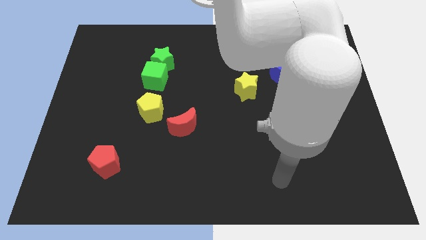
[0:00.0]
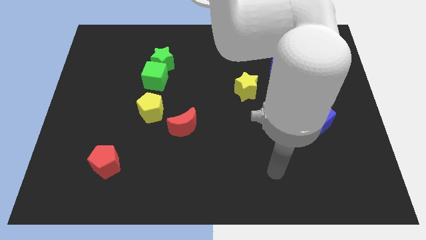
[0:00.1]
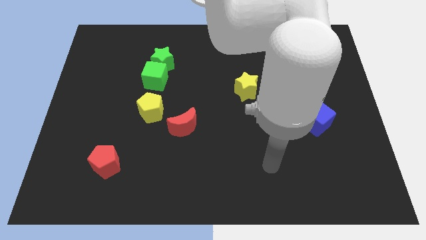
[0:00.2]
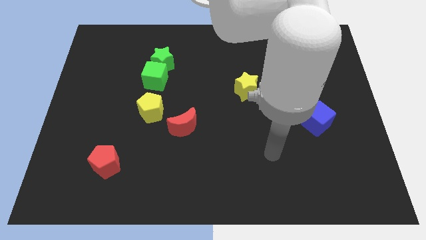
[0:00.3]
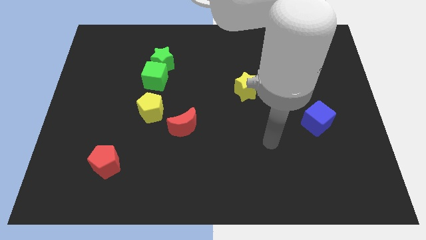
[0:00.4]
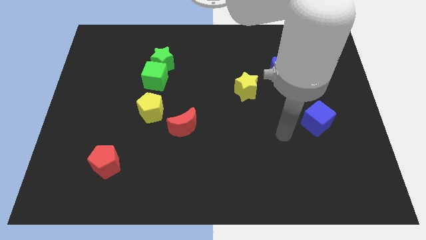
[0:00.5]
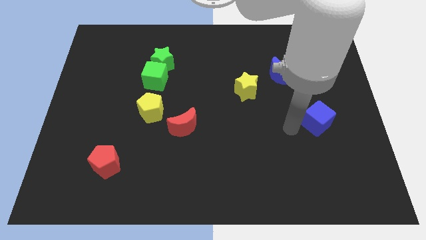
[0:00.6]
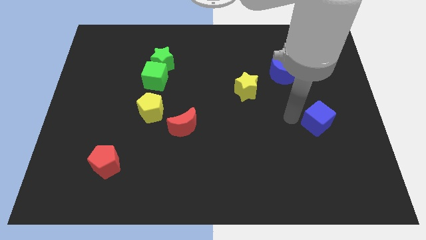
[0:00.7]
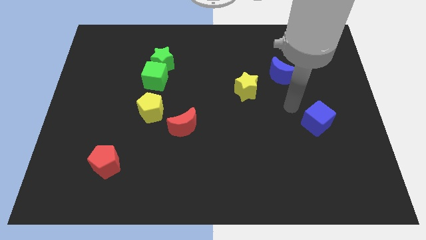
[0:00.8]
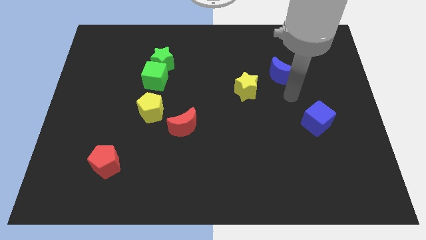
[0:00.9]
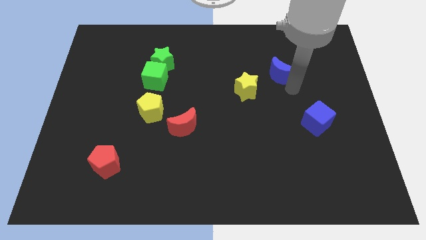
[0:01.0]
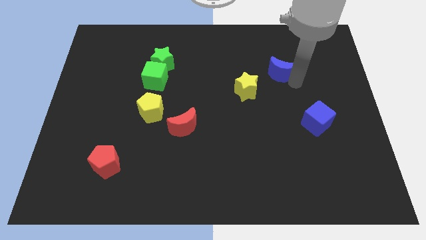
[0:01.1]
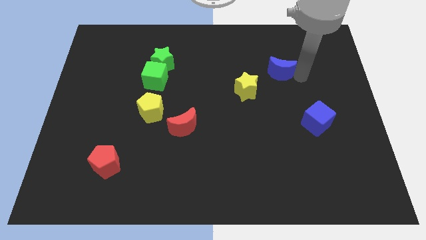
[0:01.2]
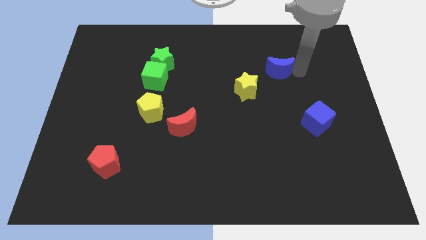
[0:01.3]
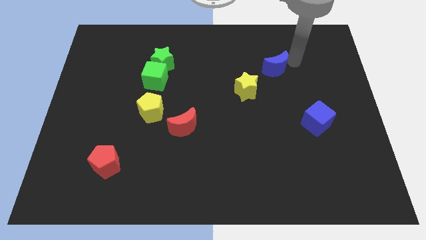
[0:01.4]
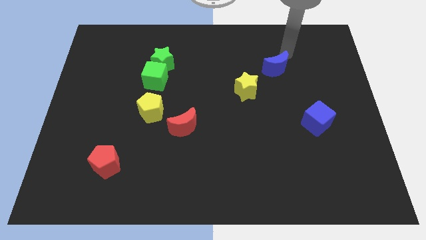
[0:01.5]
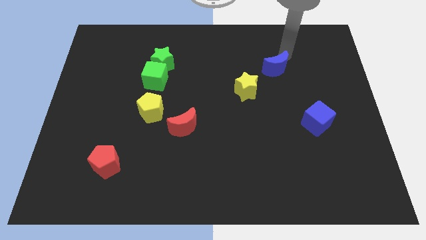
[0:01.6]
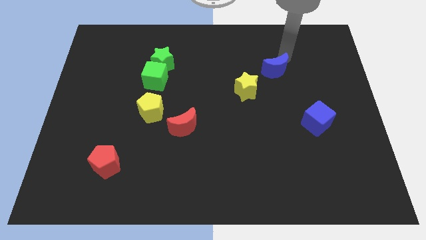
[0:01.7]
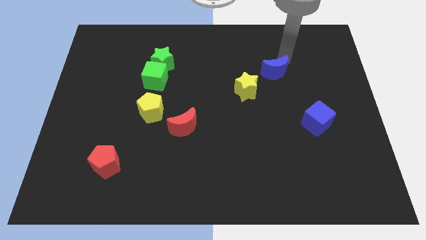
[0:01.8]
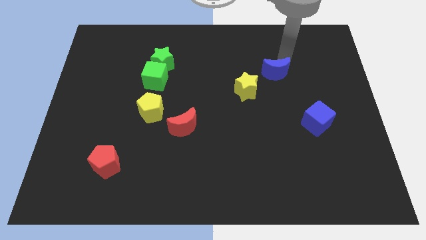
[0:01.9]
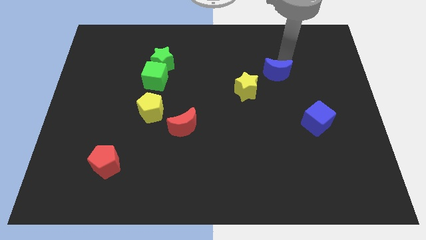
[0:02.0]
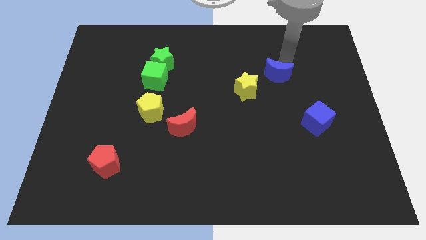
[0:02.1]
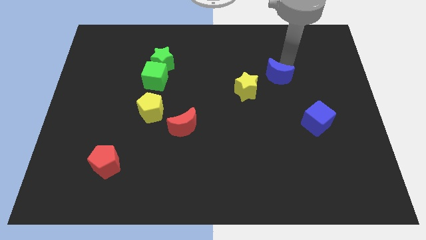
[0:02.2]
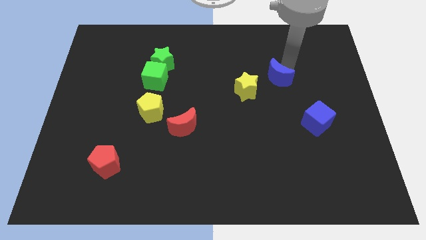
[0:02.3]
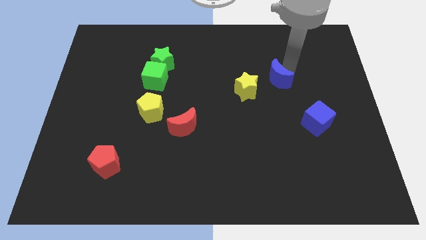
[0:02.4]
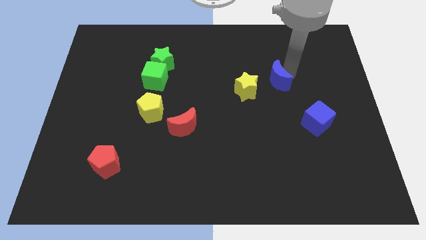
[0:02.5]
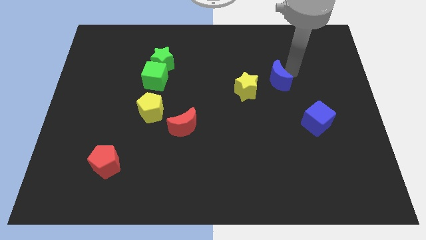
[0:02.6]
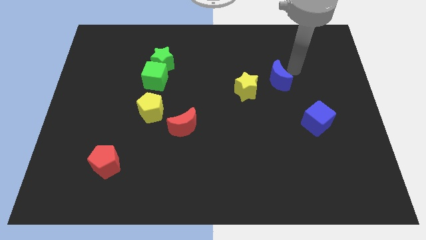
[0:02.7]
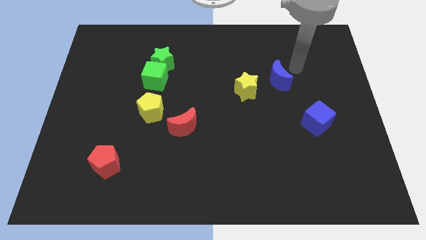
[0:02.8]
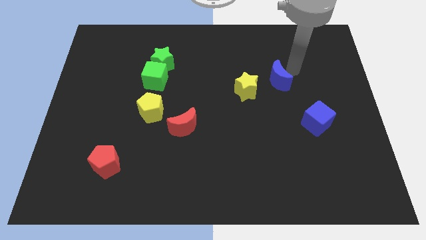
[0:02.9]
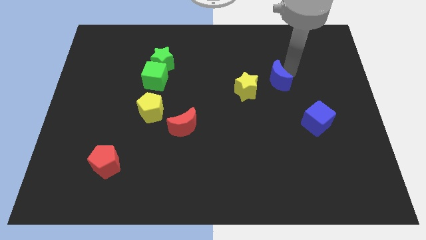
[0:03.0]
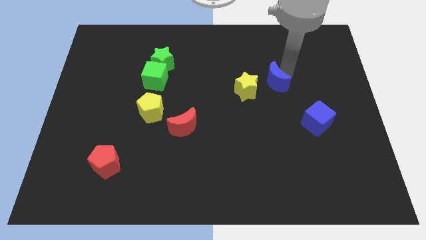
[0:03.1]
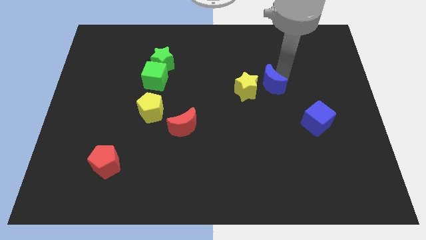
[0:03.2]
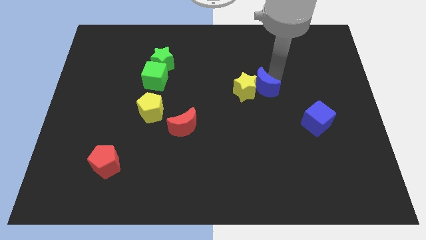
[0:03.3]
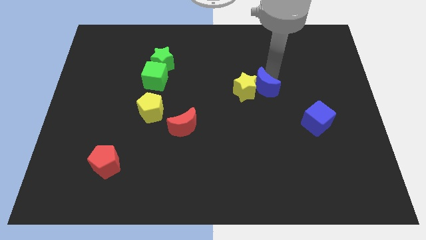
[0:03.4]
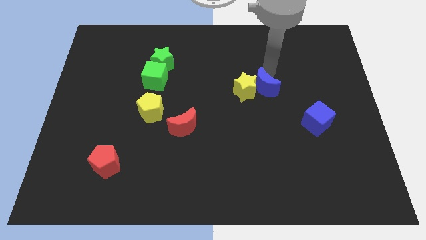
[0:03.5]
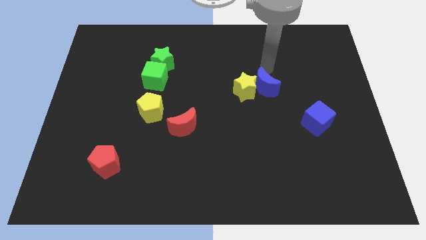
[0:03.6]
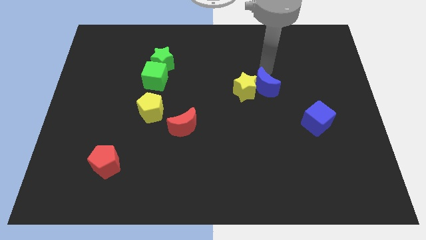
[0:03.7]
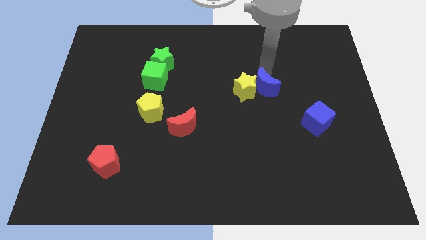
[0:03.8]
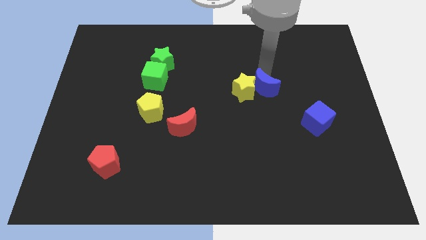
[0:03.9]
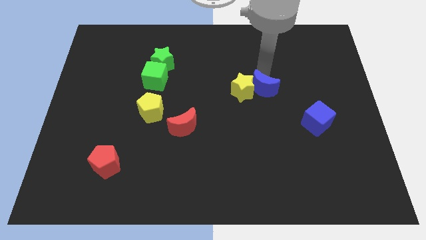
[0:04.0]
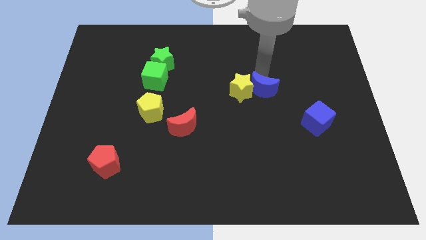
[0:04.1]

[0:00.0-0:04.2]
push the blue moon downwards and left diagonally a little

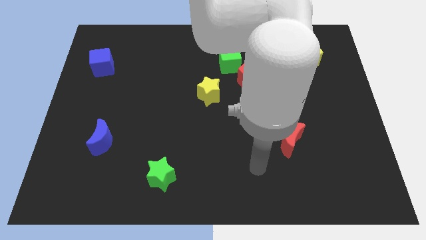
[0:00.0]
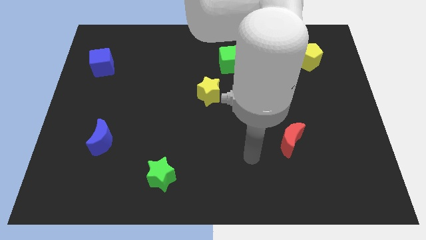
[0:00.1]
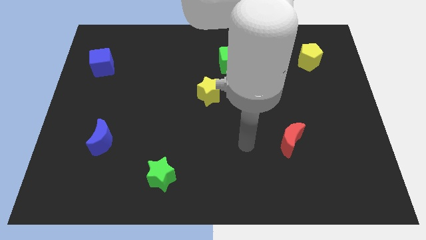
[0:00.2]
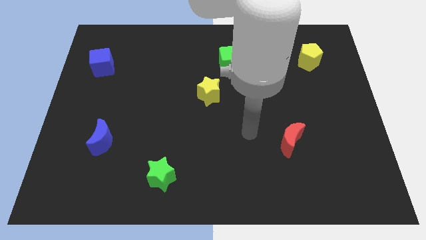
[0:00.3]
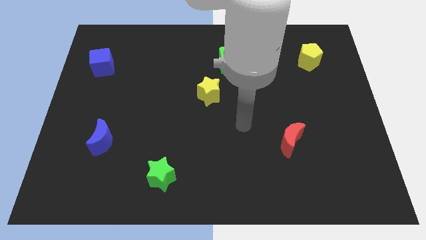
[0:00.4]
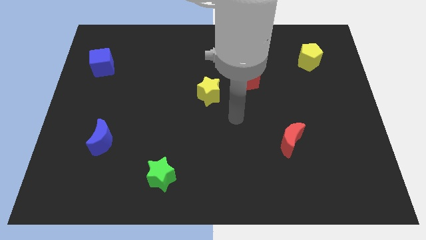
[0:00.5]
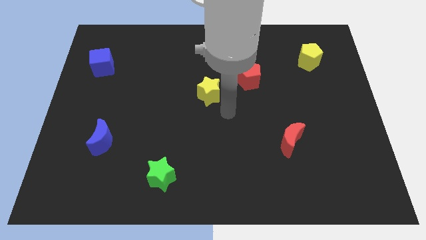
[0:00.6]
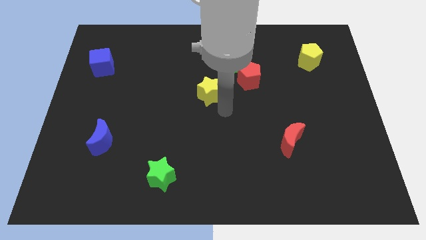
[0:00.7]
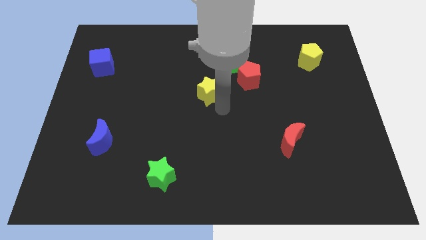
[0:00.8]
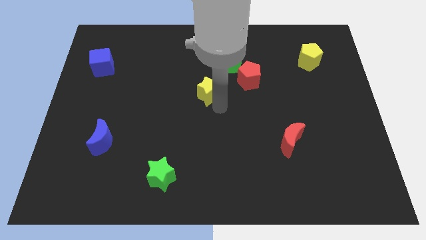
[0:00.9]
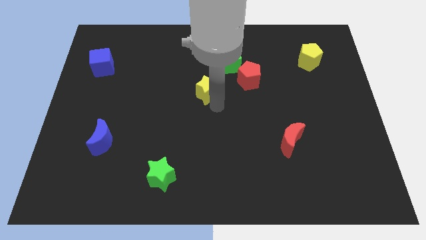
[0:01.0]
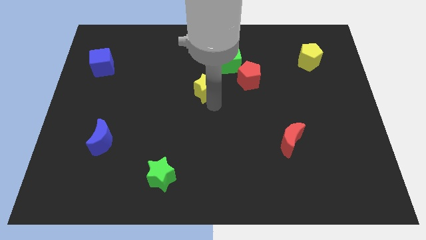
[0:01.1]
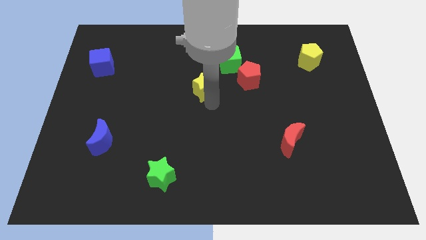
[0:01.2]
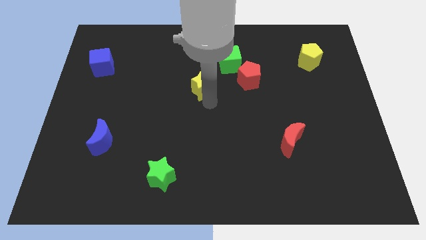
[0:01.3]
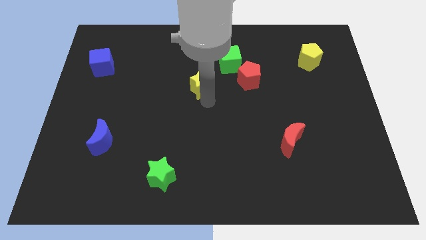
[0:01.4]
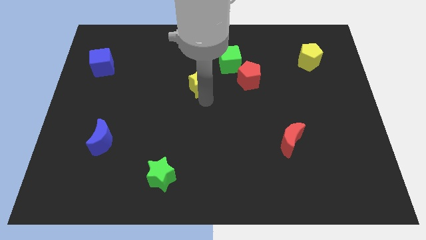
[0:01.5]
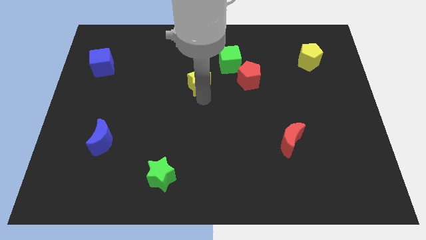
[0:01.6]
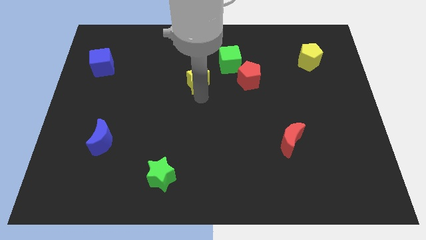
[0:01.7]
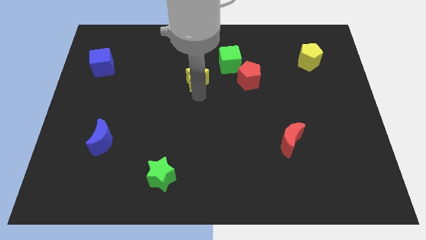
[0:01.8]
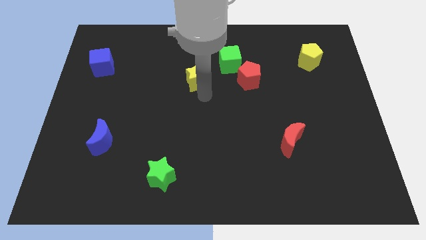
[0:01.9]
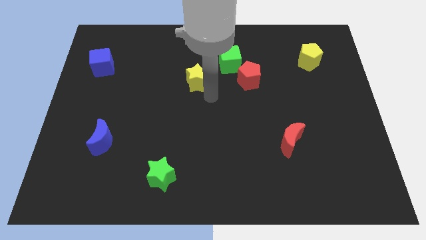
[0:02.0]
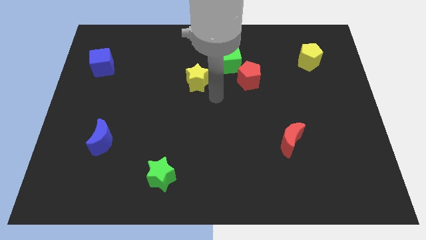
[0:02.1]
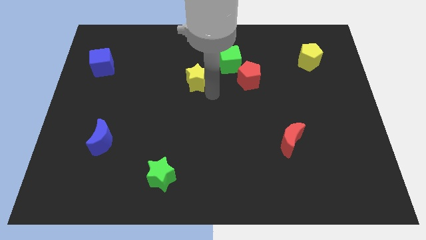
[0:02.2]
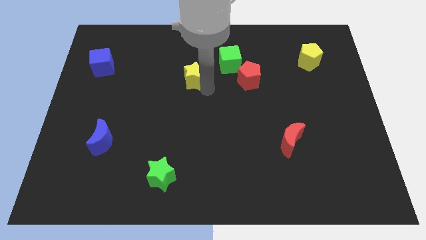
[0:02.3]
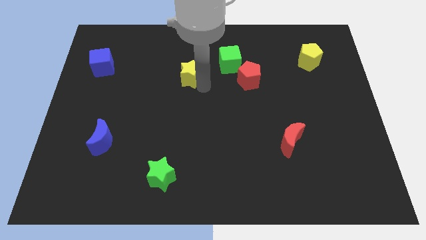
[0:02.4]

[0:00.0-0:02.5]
slide the yellow star up and left diagonally slightly

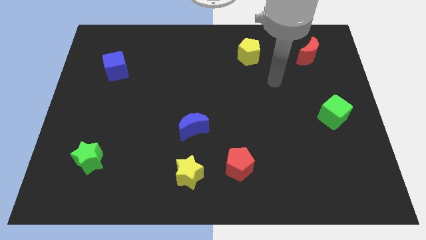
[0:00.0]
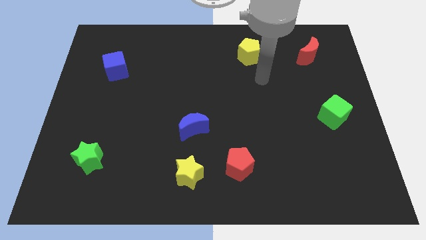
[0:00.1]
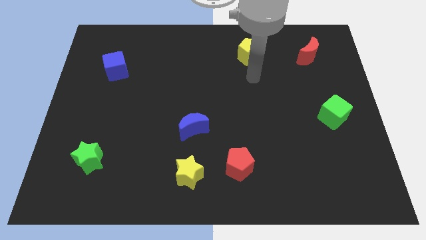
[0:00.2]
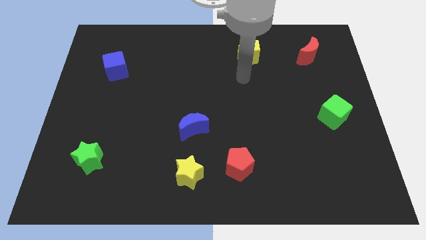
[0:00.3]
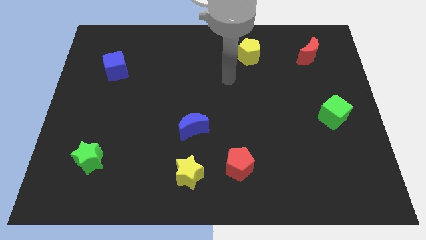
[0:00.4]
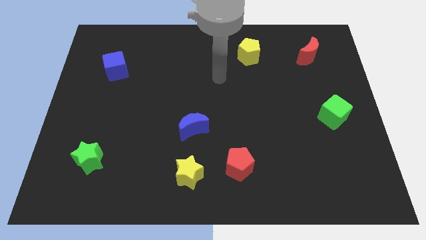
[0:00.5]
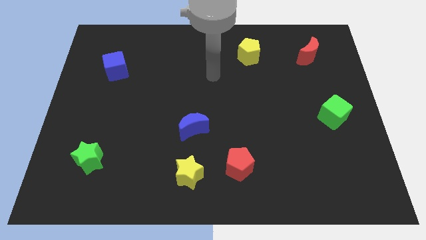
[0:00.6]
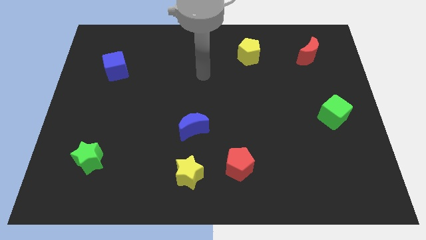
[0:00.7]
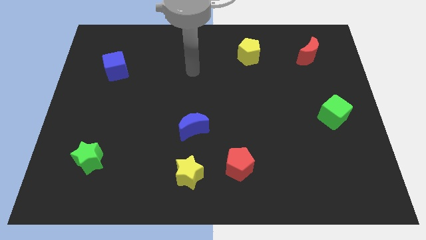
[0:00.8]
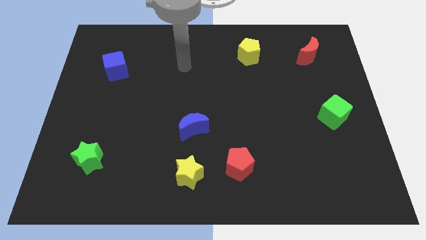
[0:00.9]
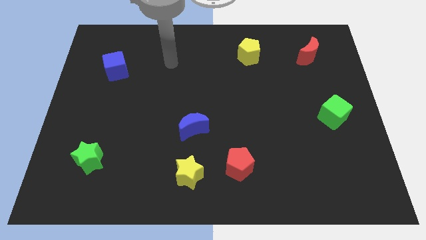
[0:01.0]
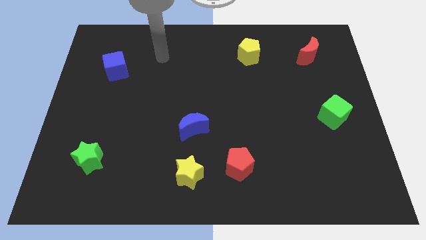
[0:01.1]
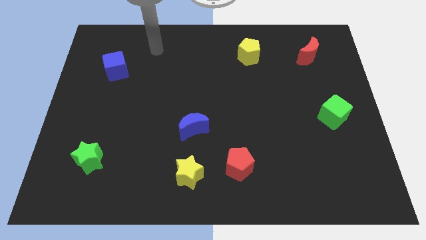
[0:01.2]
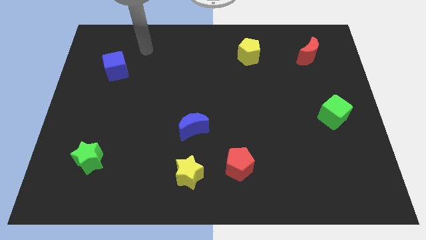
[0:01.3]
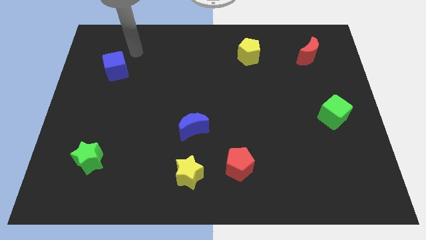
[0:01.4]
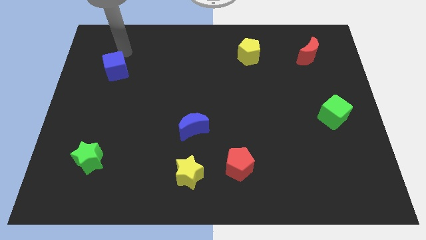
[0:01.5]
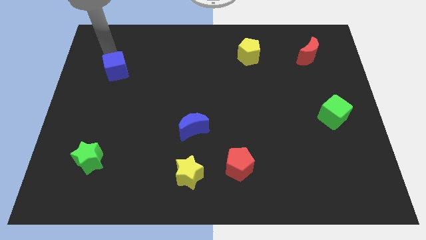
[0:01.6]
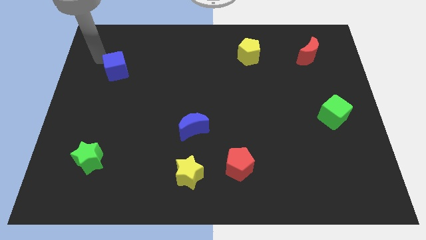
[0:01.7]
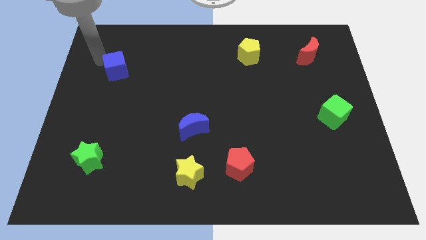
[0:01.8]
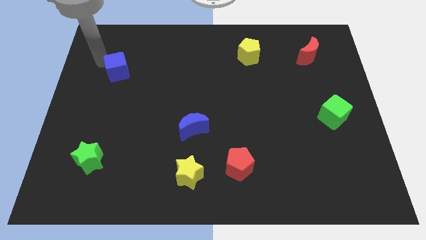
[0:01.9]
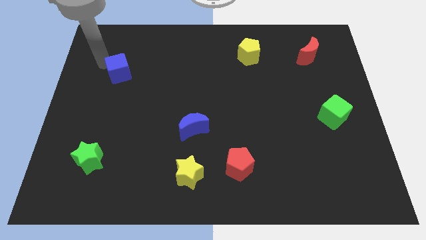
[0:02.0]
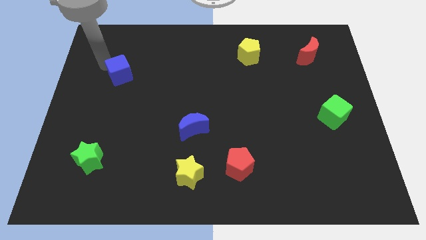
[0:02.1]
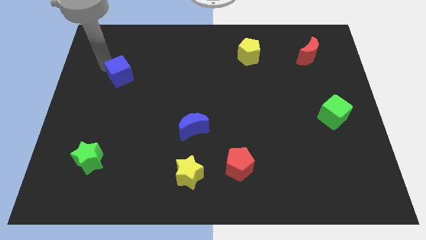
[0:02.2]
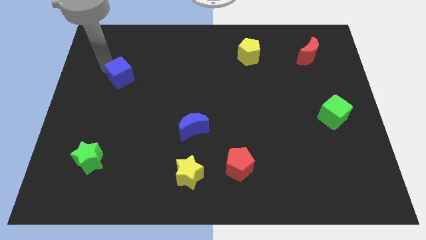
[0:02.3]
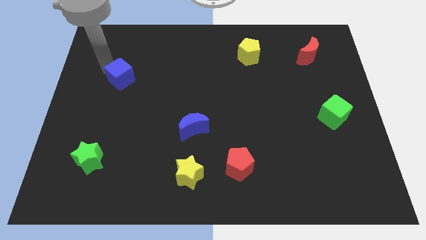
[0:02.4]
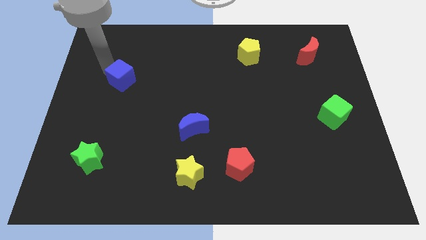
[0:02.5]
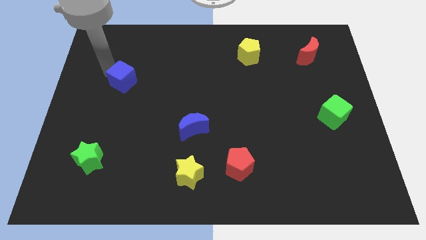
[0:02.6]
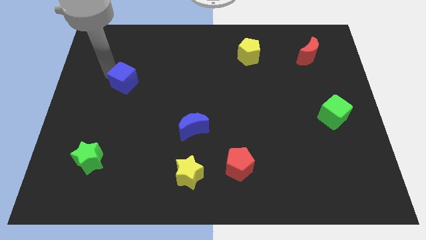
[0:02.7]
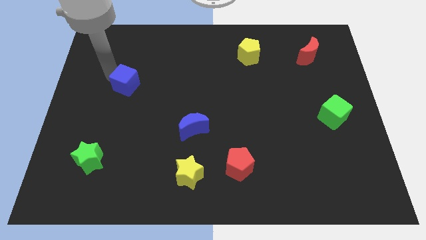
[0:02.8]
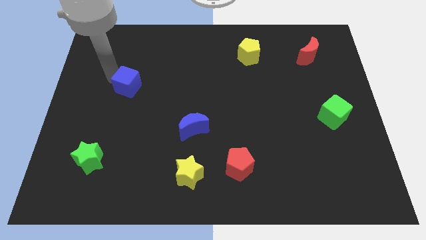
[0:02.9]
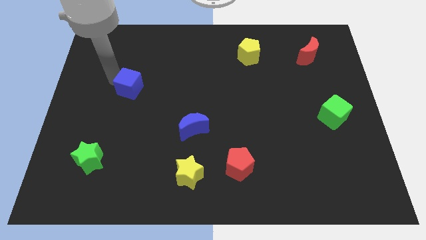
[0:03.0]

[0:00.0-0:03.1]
slide the blue cube down and right diagonally a little bit
